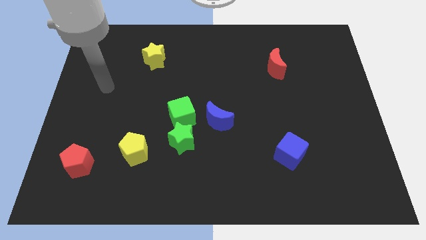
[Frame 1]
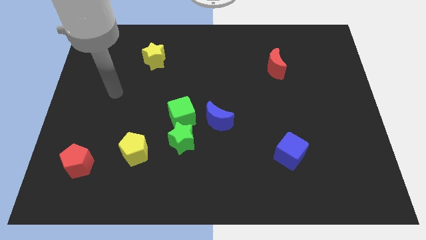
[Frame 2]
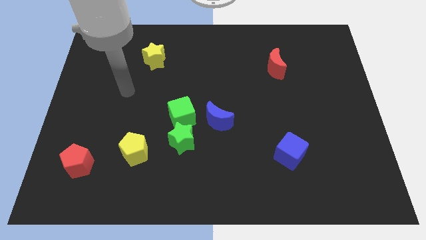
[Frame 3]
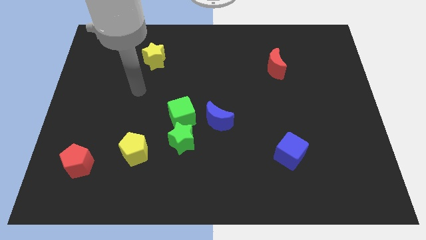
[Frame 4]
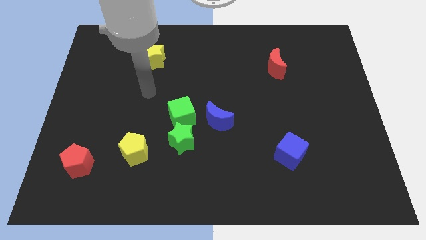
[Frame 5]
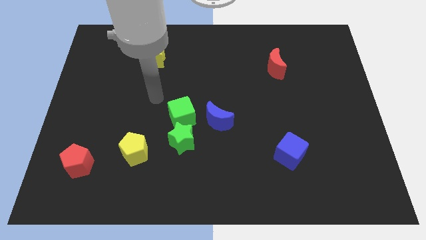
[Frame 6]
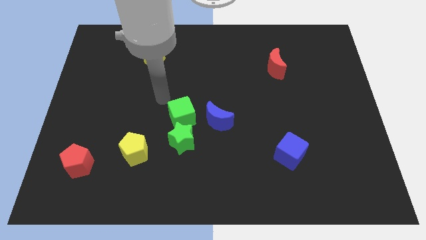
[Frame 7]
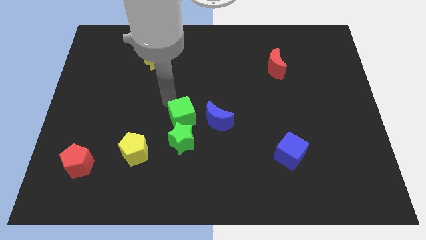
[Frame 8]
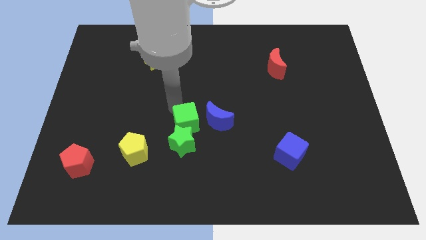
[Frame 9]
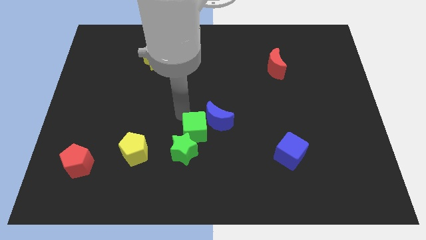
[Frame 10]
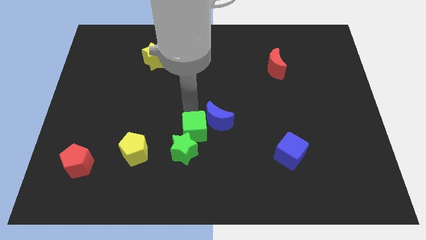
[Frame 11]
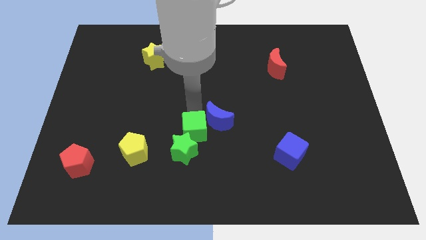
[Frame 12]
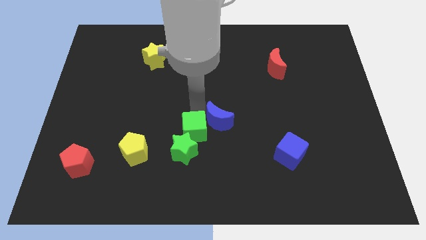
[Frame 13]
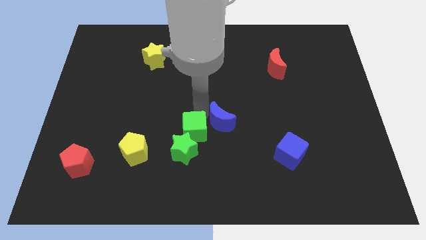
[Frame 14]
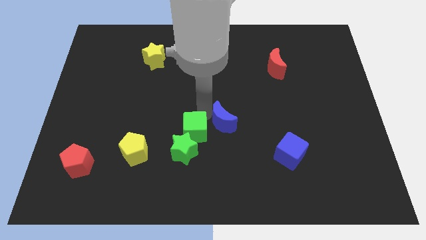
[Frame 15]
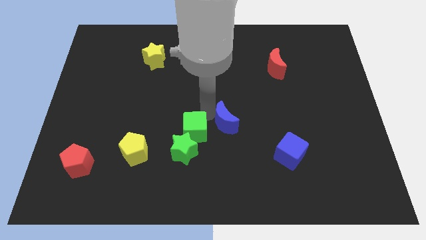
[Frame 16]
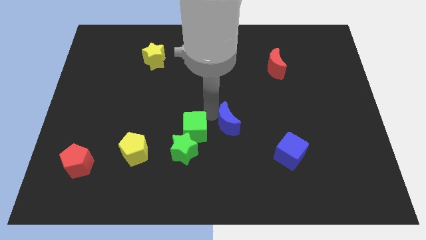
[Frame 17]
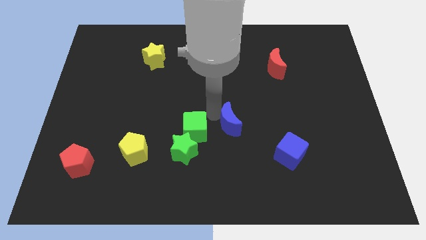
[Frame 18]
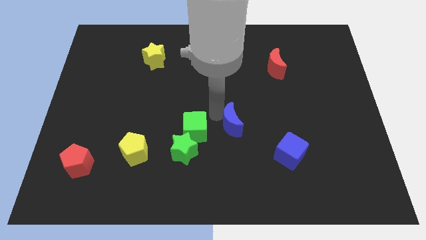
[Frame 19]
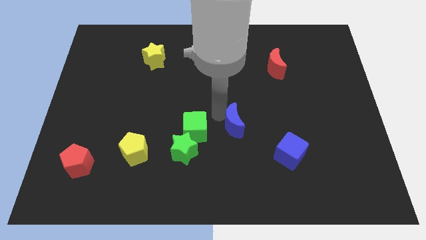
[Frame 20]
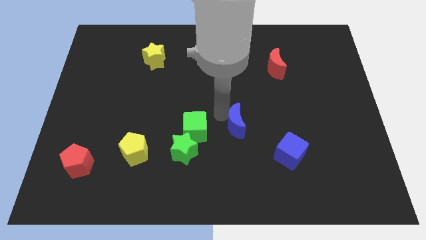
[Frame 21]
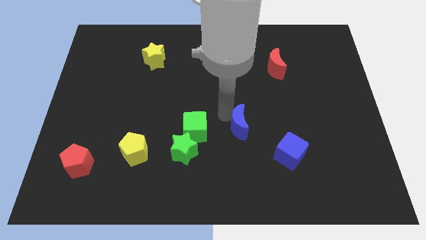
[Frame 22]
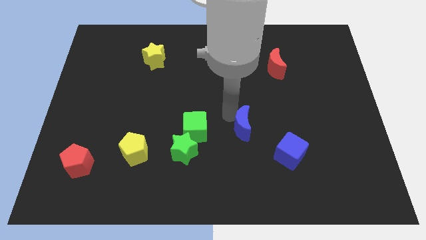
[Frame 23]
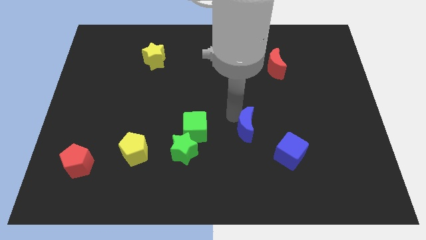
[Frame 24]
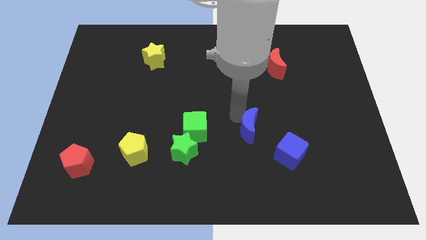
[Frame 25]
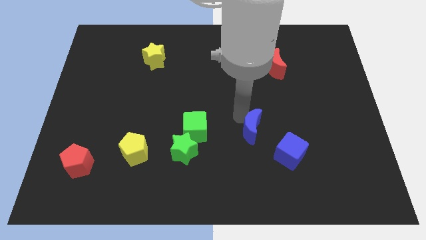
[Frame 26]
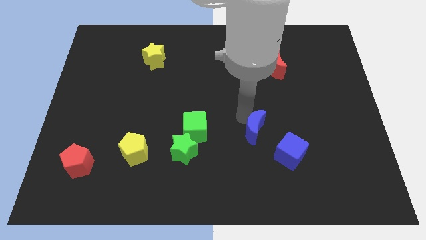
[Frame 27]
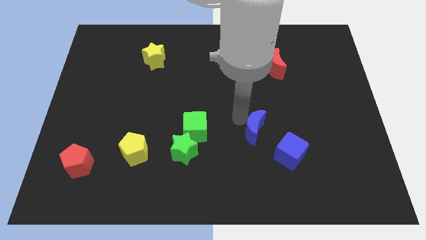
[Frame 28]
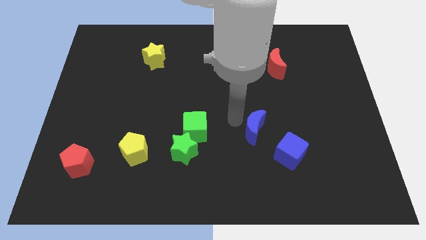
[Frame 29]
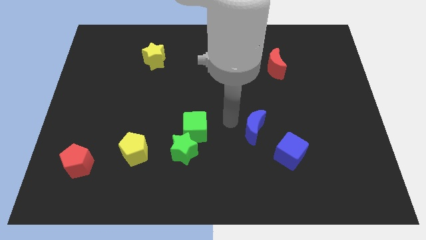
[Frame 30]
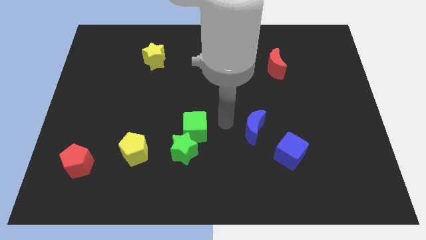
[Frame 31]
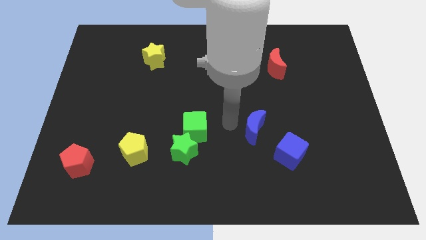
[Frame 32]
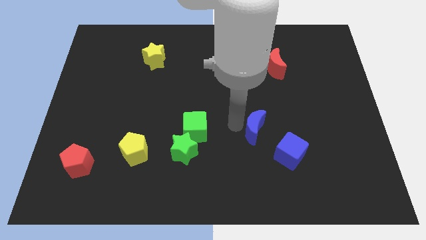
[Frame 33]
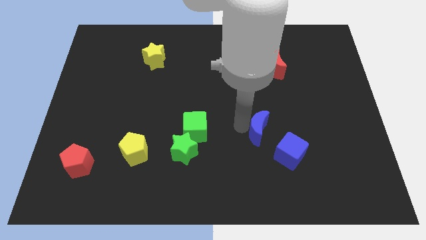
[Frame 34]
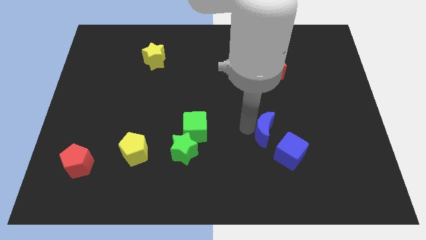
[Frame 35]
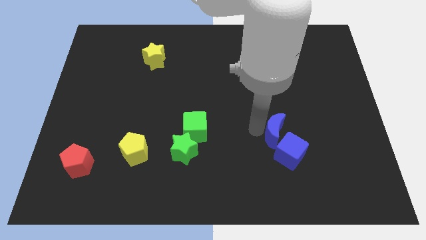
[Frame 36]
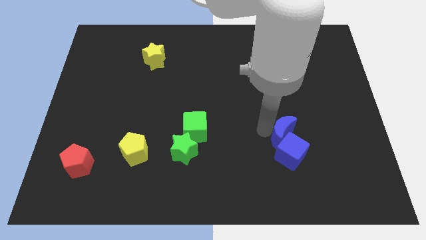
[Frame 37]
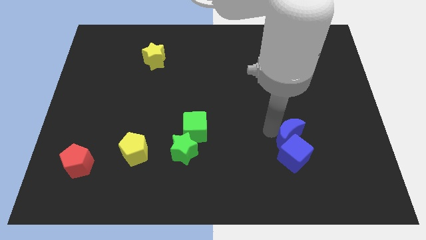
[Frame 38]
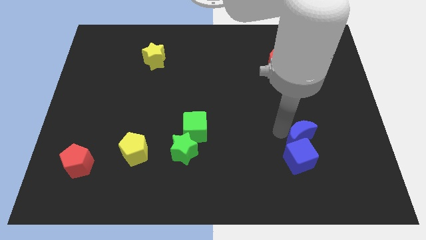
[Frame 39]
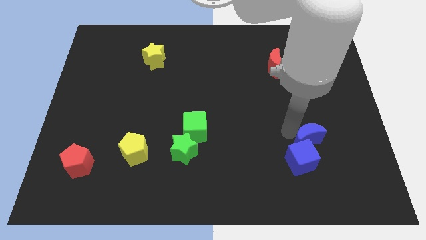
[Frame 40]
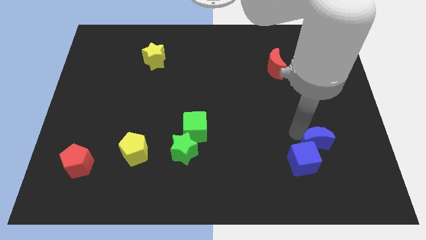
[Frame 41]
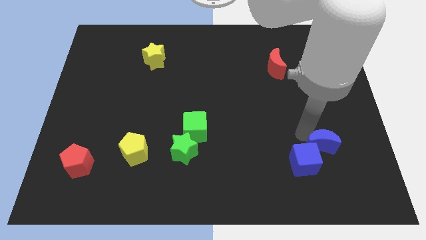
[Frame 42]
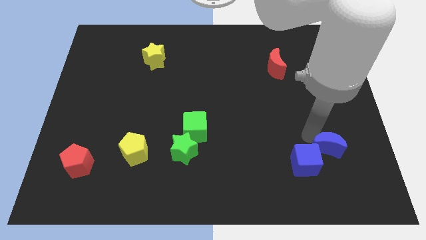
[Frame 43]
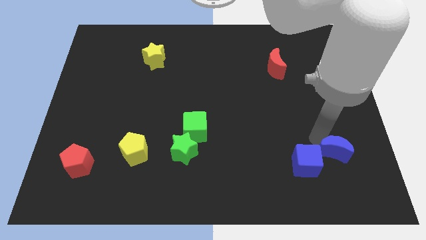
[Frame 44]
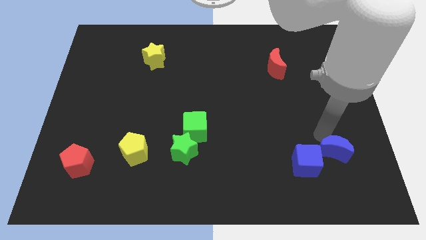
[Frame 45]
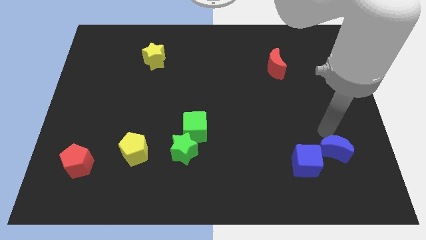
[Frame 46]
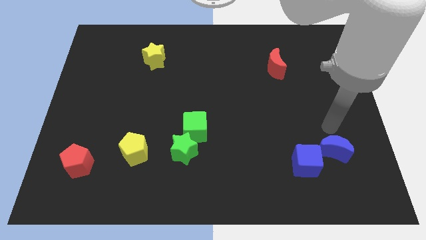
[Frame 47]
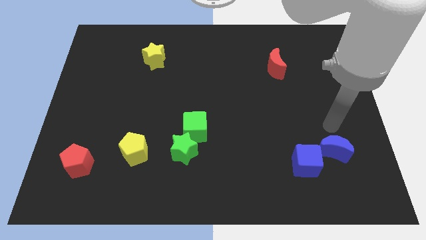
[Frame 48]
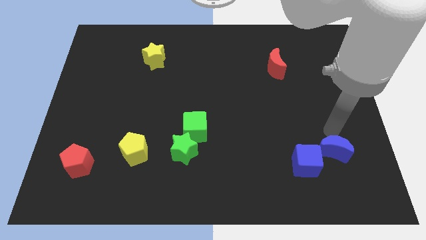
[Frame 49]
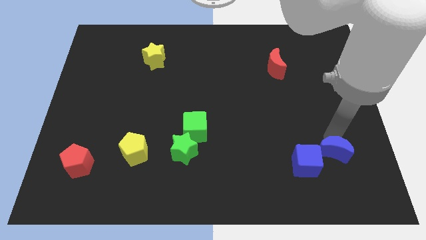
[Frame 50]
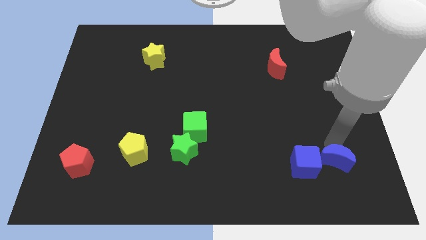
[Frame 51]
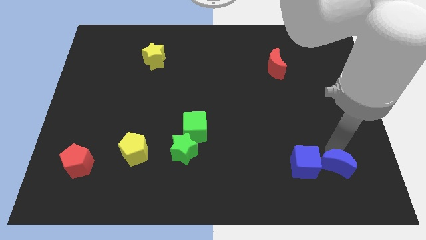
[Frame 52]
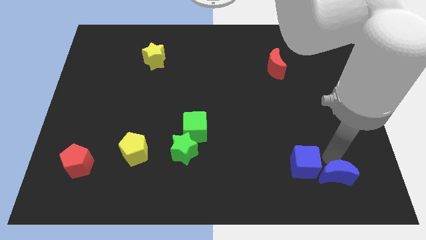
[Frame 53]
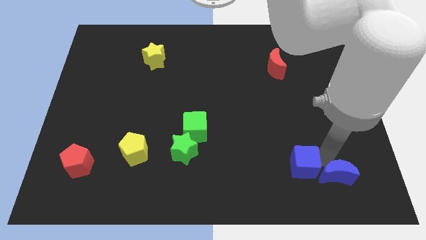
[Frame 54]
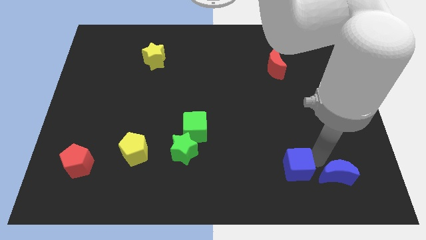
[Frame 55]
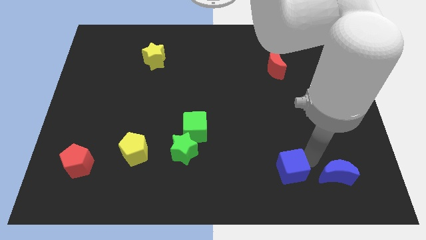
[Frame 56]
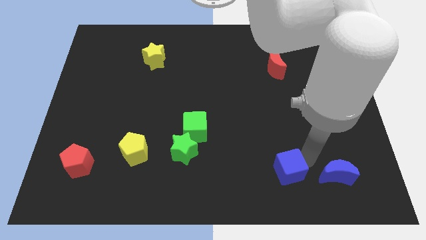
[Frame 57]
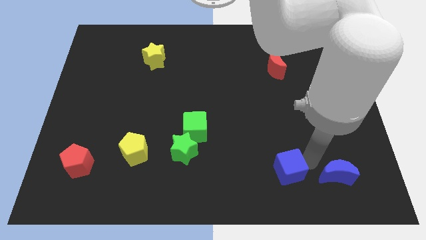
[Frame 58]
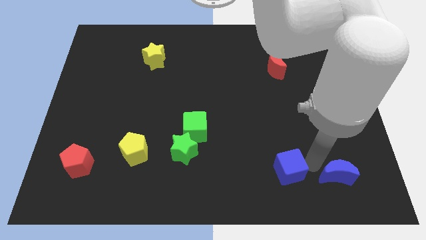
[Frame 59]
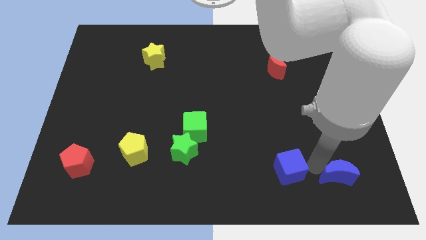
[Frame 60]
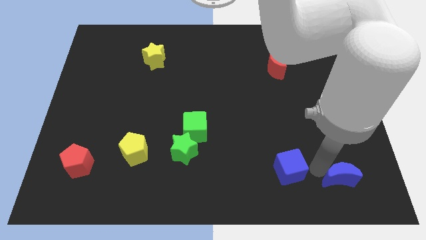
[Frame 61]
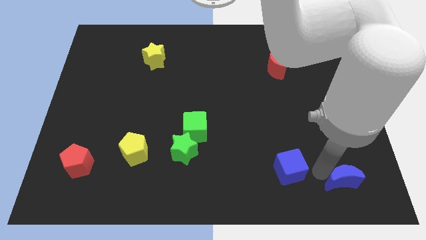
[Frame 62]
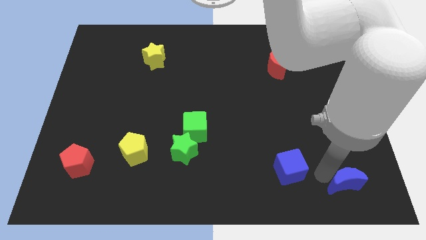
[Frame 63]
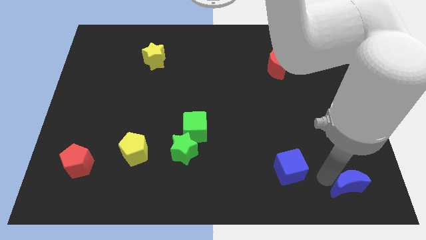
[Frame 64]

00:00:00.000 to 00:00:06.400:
move the blue moon to the bottom right
